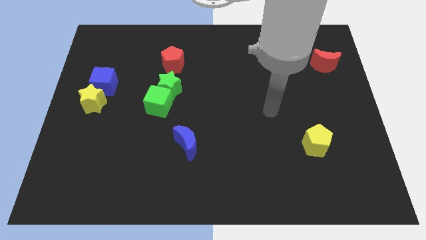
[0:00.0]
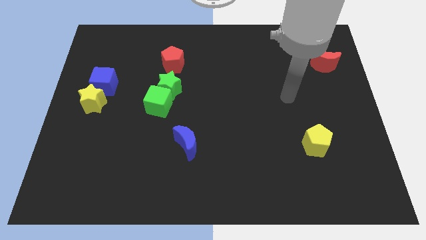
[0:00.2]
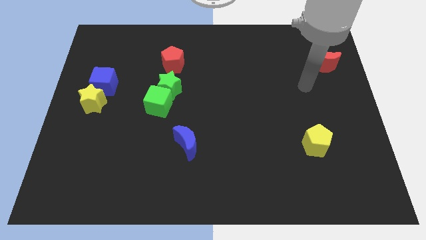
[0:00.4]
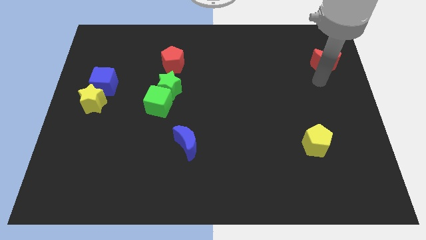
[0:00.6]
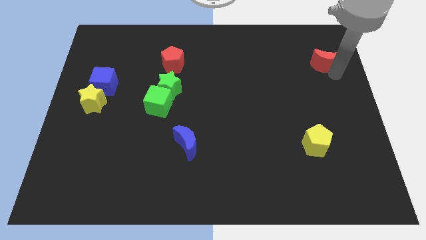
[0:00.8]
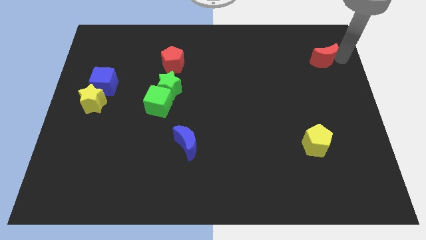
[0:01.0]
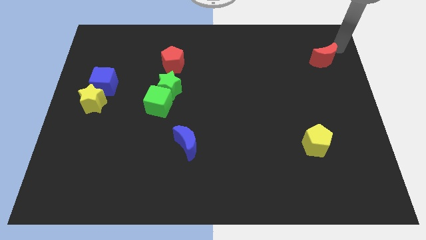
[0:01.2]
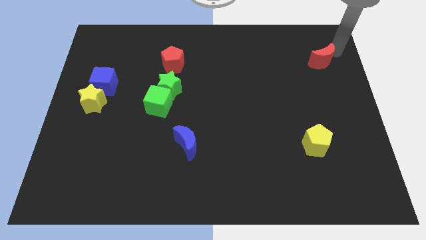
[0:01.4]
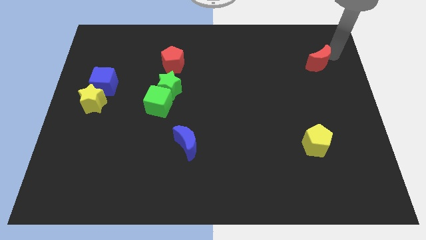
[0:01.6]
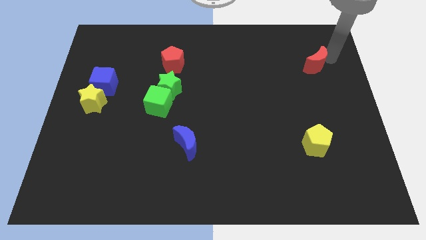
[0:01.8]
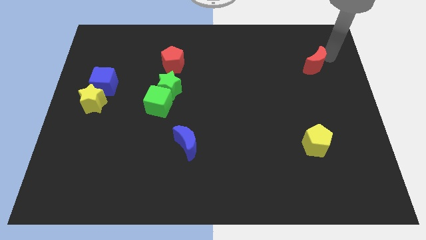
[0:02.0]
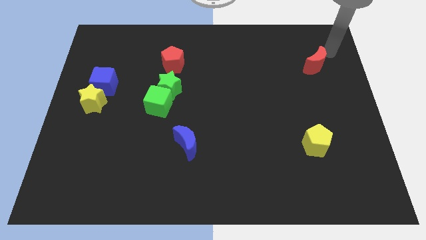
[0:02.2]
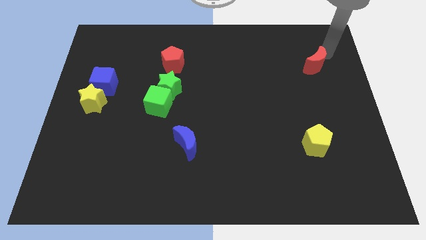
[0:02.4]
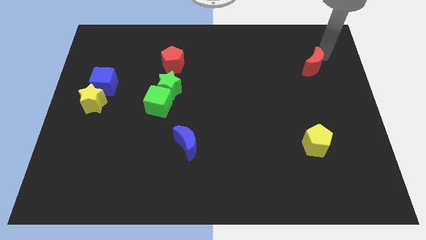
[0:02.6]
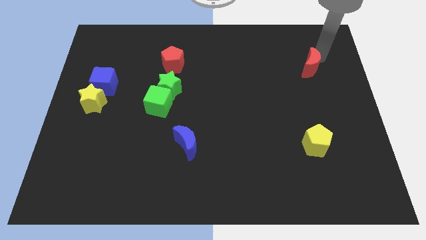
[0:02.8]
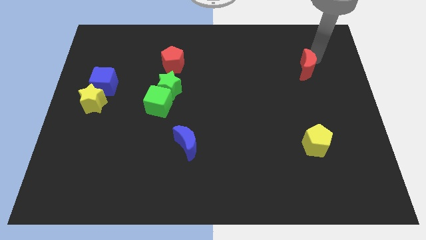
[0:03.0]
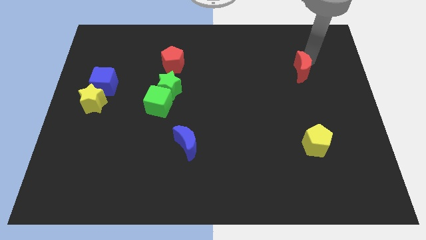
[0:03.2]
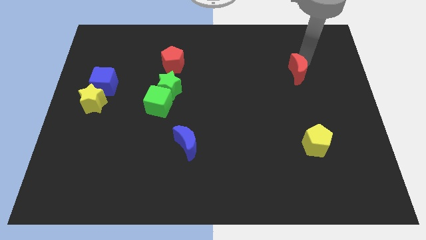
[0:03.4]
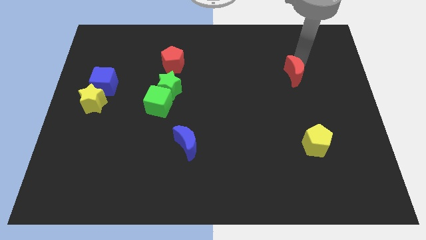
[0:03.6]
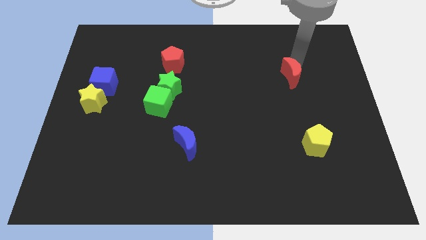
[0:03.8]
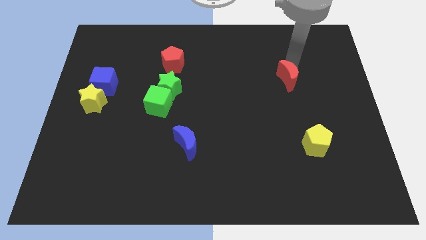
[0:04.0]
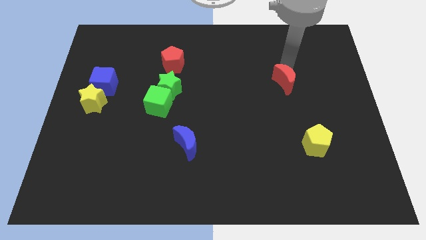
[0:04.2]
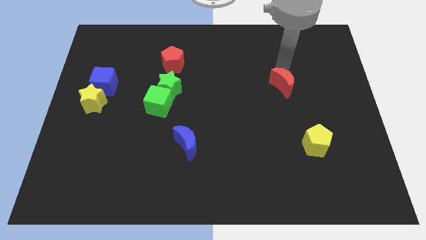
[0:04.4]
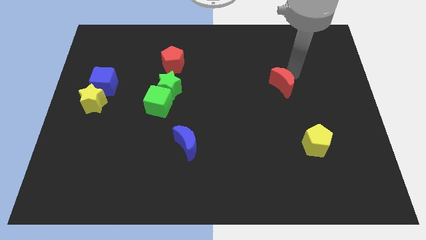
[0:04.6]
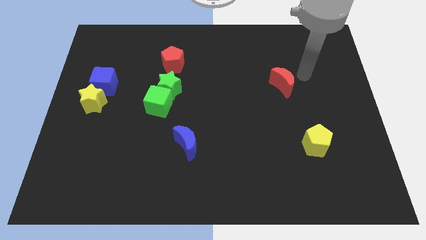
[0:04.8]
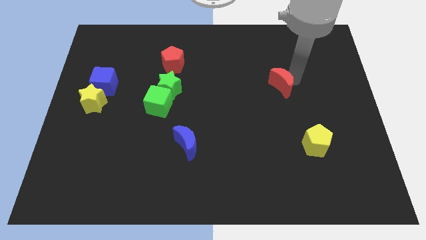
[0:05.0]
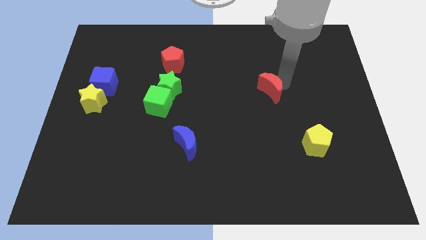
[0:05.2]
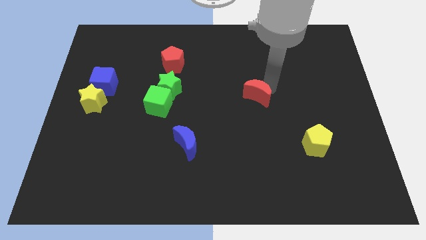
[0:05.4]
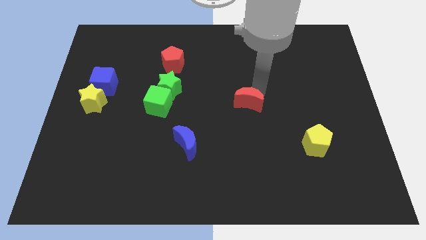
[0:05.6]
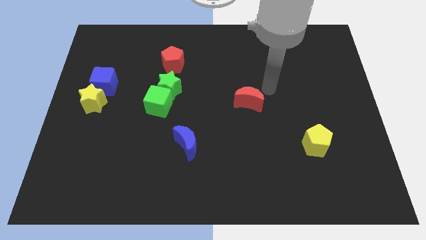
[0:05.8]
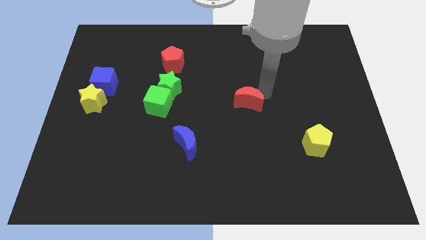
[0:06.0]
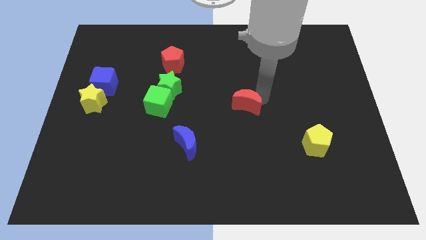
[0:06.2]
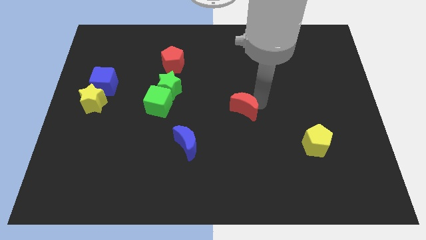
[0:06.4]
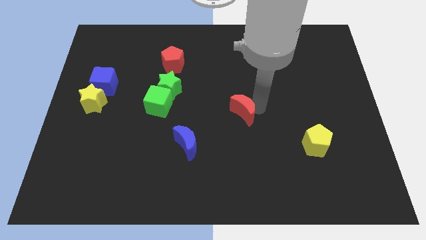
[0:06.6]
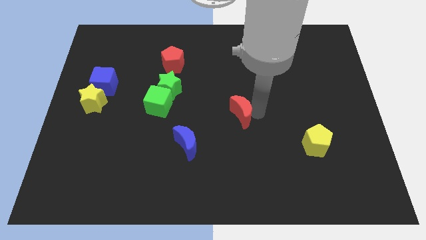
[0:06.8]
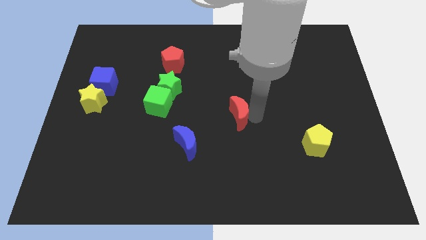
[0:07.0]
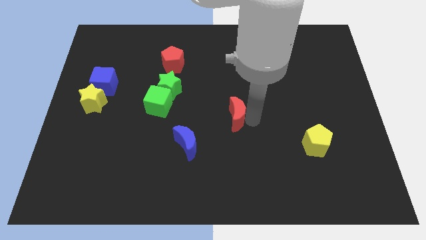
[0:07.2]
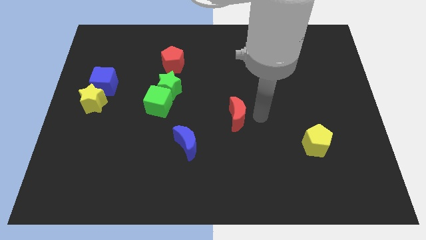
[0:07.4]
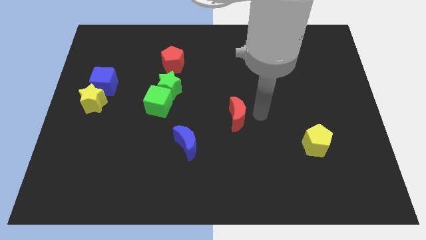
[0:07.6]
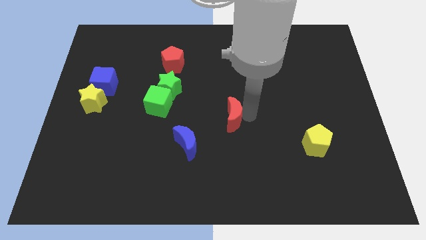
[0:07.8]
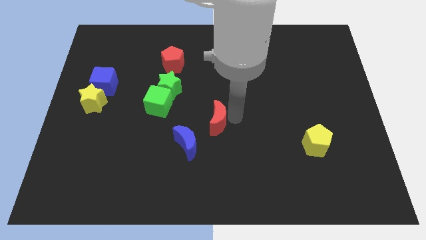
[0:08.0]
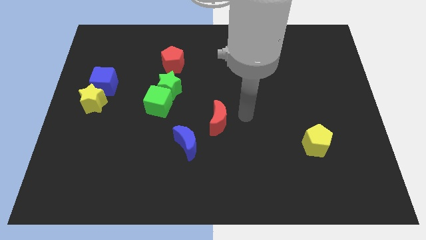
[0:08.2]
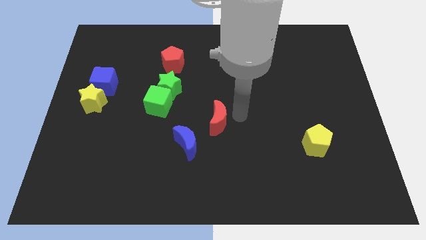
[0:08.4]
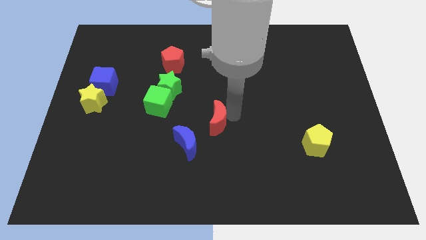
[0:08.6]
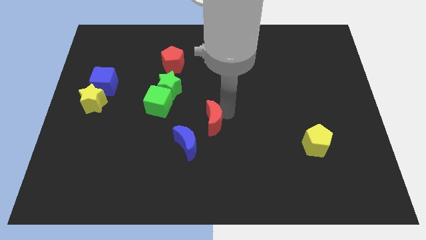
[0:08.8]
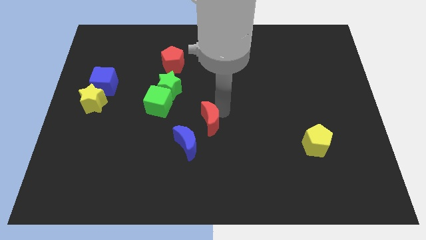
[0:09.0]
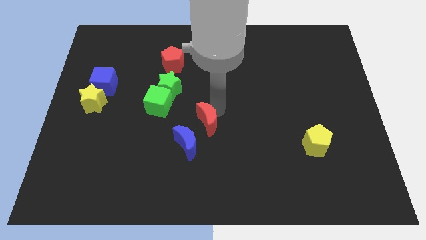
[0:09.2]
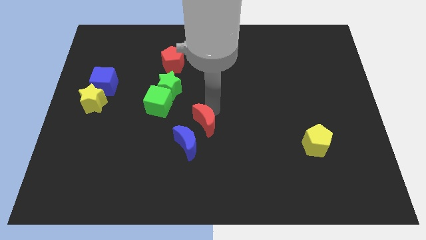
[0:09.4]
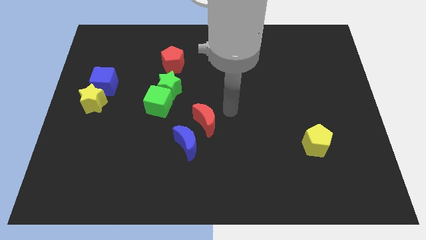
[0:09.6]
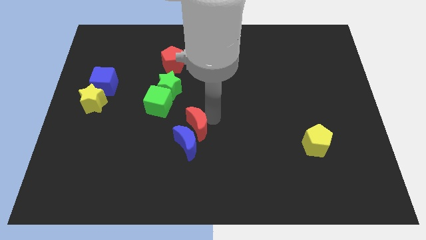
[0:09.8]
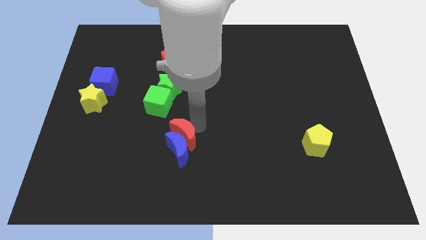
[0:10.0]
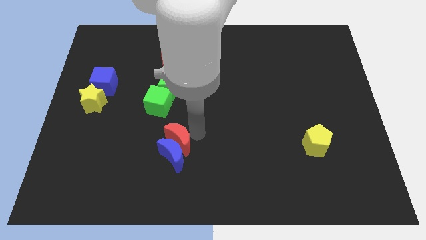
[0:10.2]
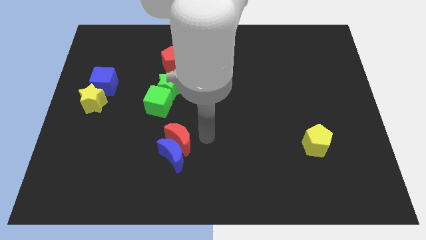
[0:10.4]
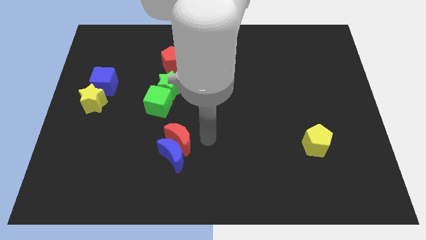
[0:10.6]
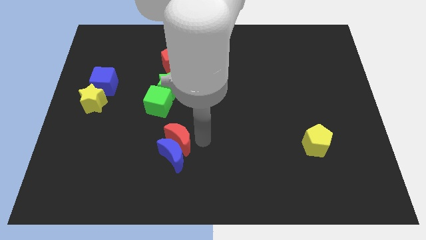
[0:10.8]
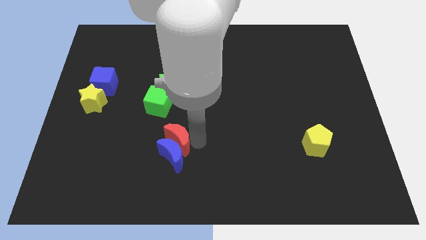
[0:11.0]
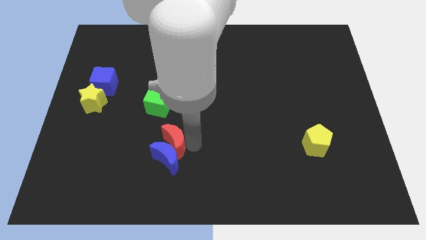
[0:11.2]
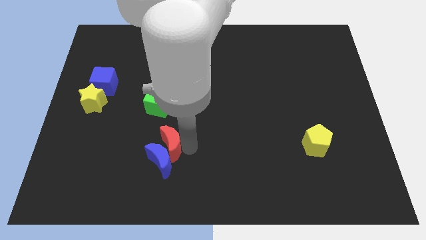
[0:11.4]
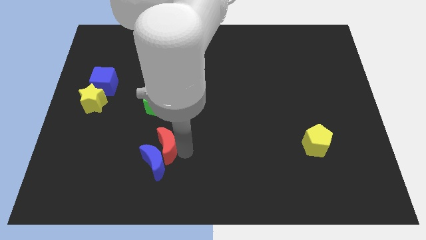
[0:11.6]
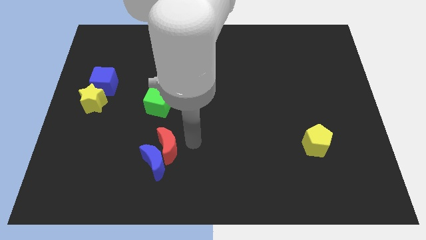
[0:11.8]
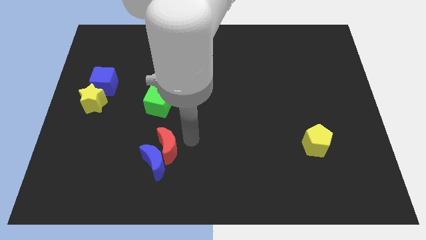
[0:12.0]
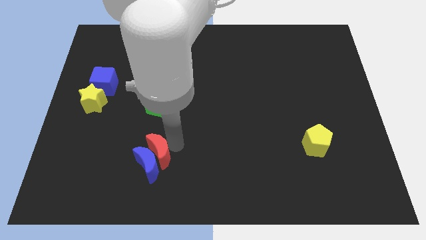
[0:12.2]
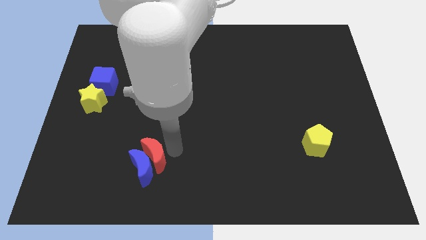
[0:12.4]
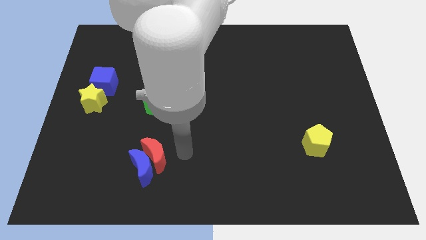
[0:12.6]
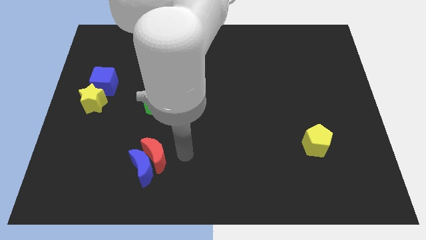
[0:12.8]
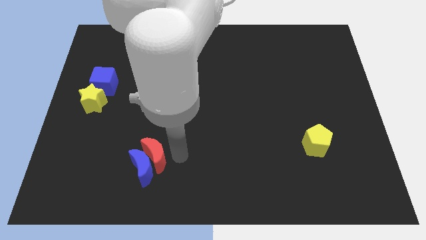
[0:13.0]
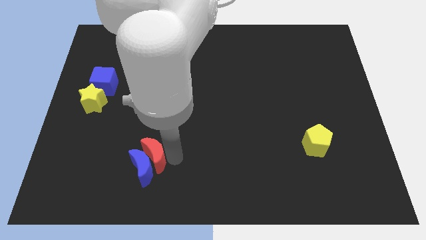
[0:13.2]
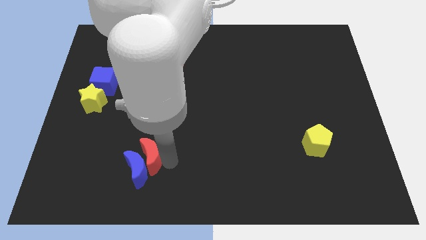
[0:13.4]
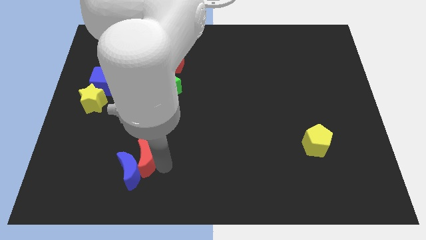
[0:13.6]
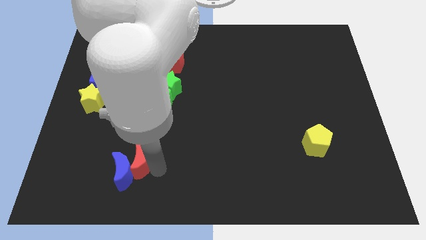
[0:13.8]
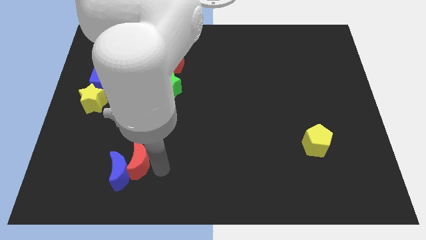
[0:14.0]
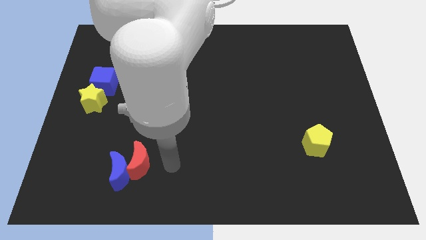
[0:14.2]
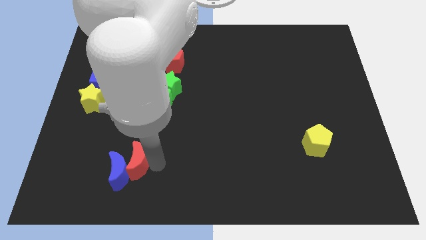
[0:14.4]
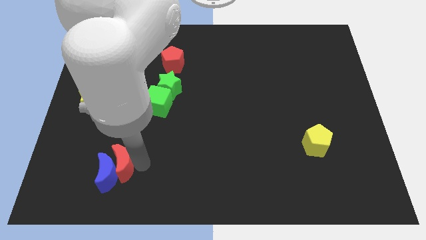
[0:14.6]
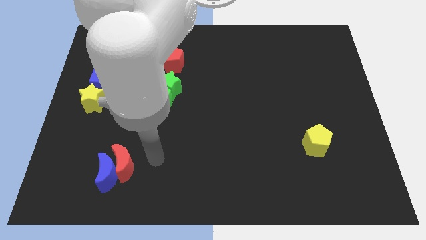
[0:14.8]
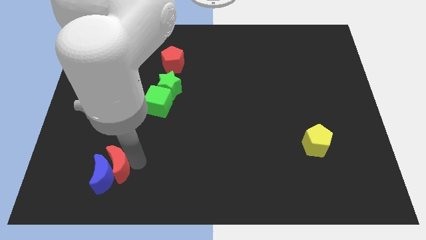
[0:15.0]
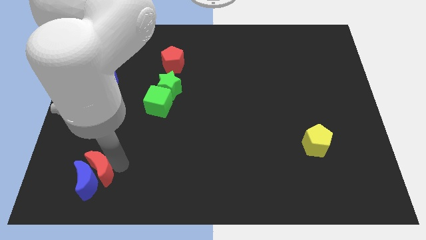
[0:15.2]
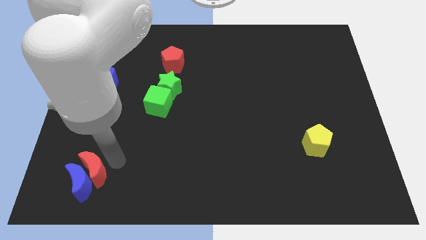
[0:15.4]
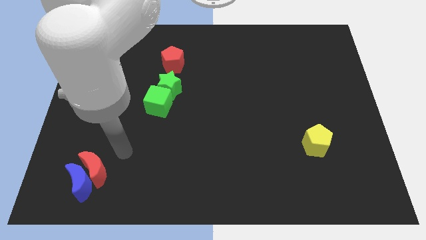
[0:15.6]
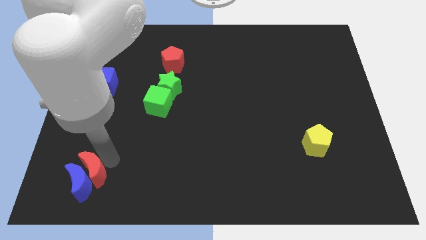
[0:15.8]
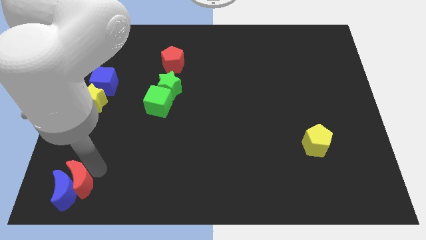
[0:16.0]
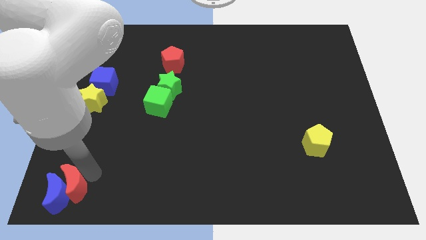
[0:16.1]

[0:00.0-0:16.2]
move the red moon to the bottom left corner
